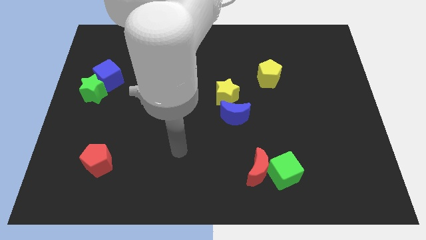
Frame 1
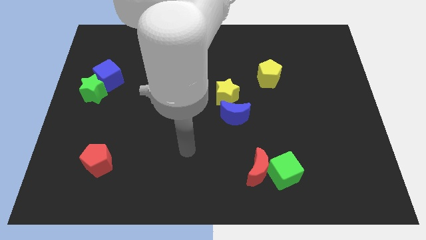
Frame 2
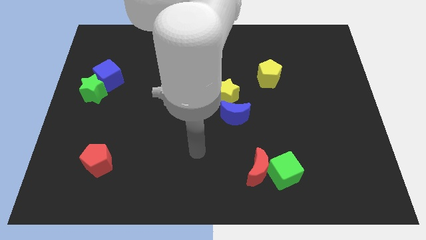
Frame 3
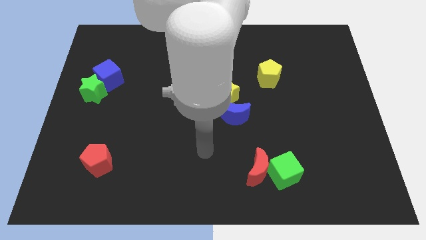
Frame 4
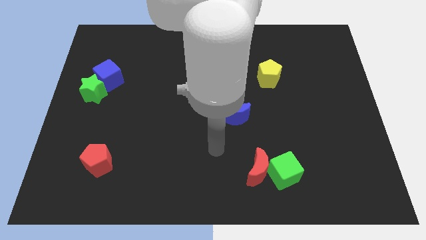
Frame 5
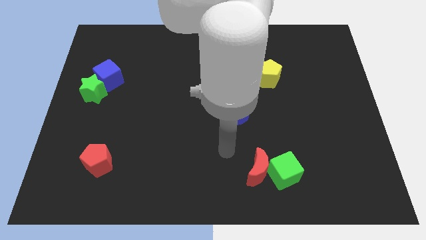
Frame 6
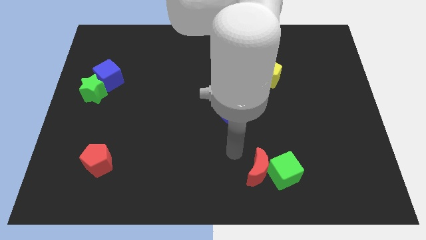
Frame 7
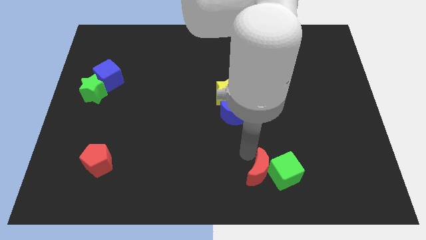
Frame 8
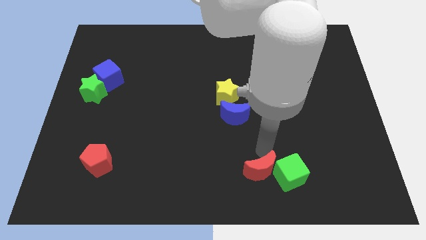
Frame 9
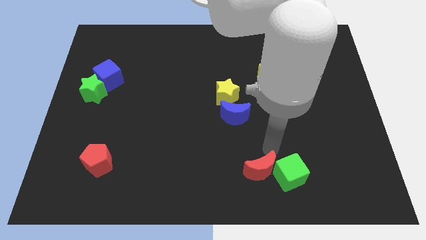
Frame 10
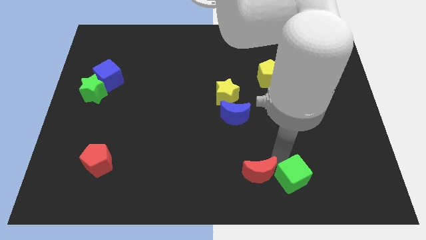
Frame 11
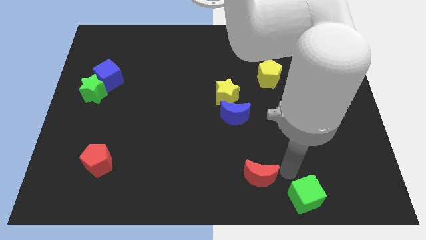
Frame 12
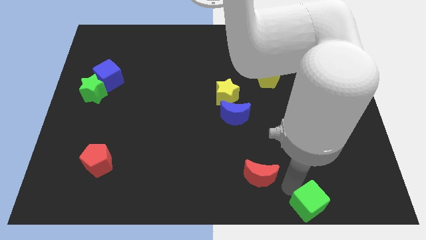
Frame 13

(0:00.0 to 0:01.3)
separate the red moon from the green cube

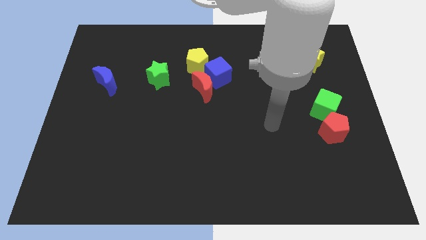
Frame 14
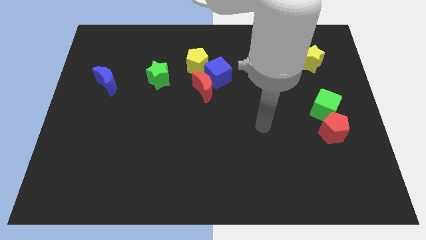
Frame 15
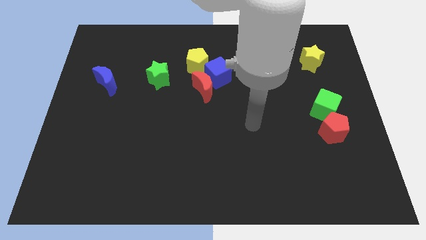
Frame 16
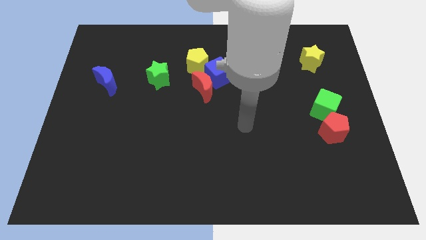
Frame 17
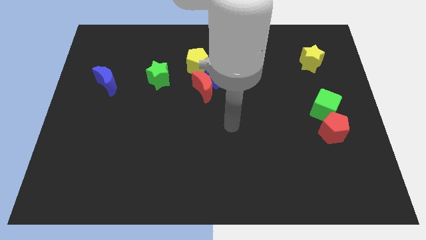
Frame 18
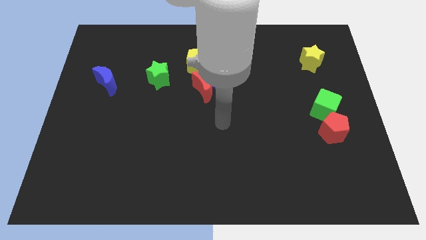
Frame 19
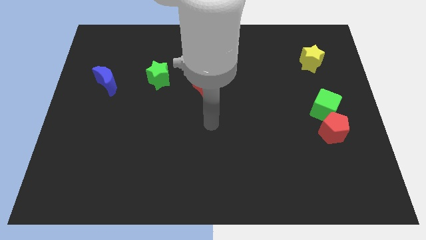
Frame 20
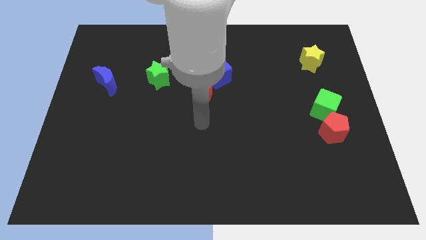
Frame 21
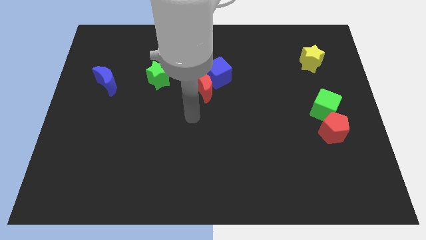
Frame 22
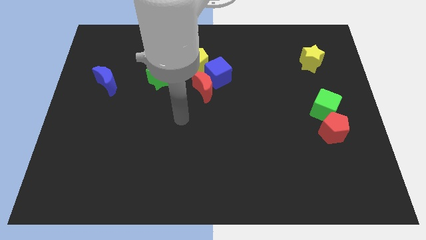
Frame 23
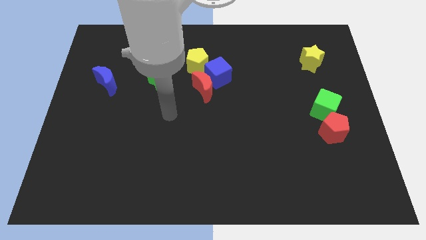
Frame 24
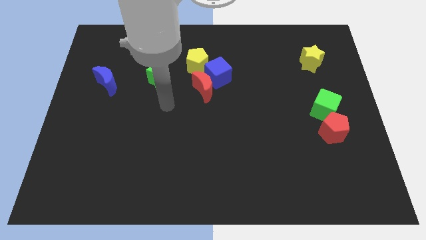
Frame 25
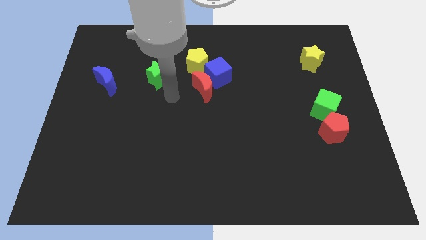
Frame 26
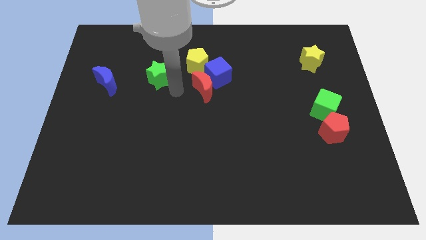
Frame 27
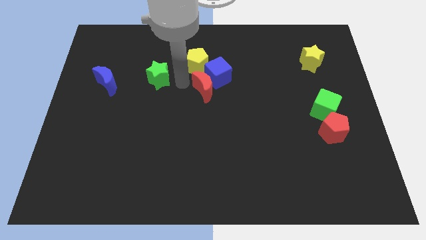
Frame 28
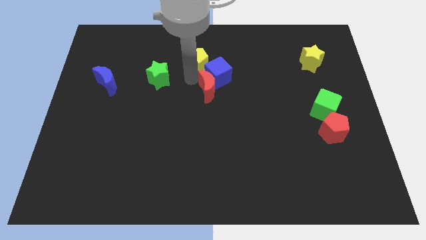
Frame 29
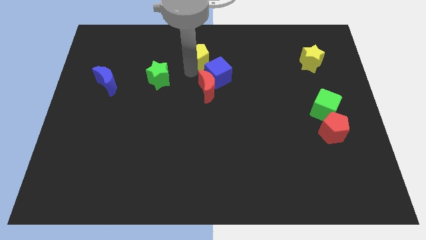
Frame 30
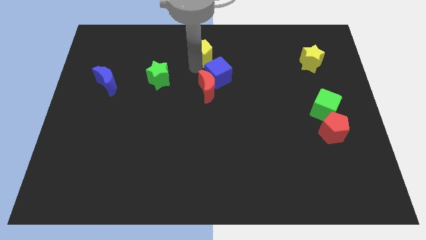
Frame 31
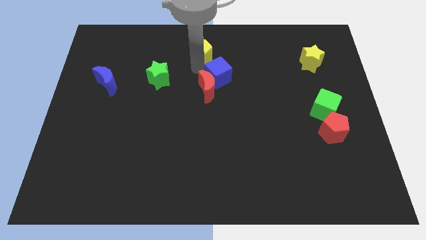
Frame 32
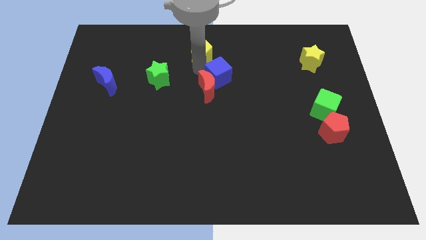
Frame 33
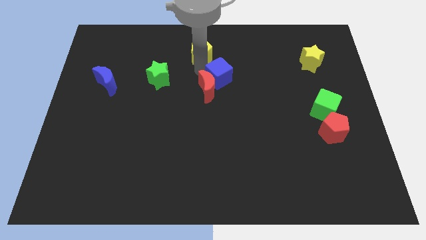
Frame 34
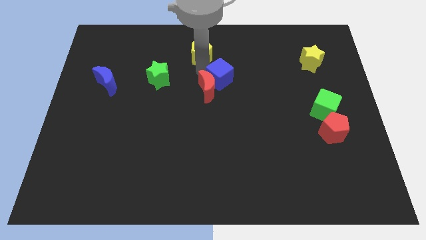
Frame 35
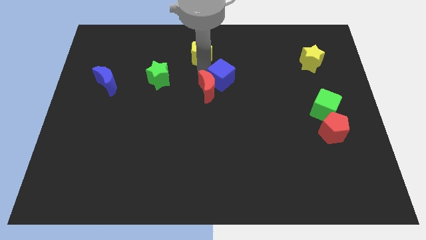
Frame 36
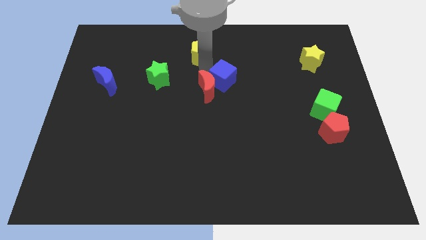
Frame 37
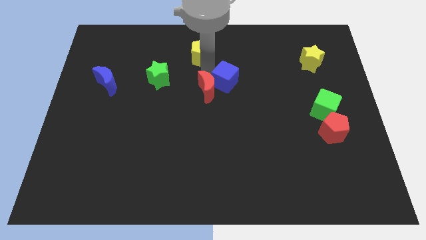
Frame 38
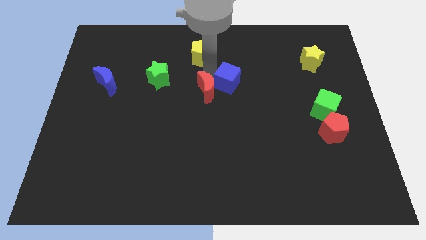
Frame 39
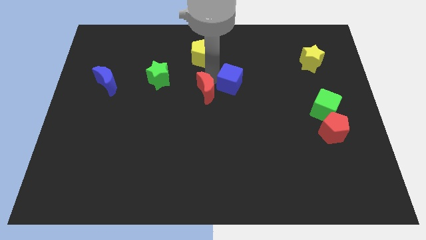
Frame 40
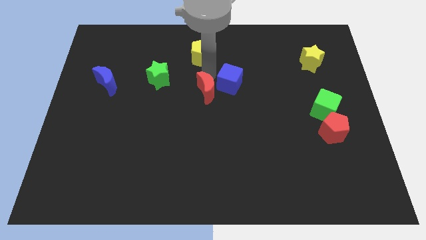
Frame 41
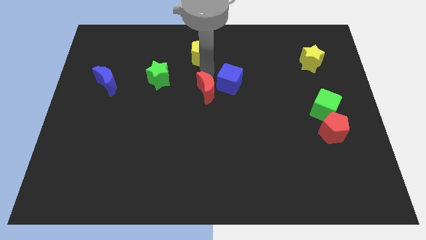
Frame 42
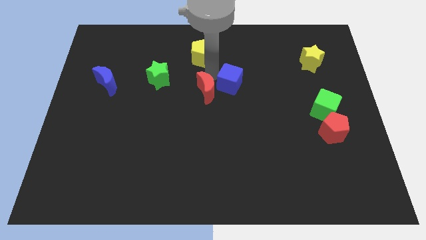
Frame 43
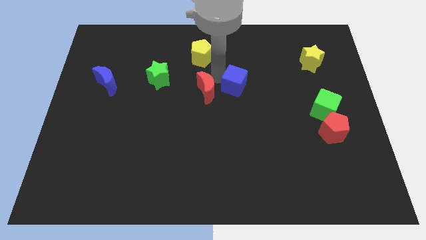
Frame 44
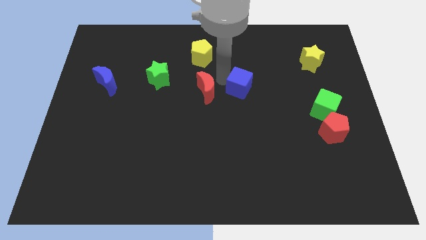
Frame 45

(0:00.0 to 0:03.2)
move the blue cube away from the red moon and yellow pentagon

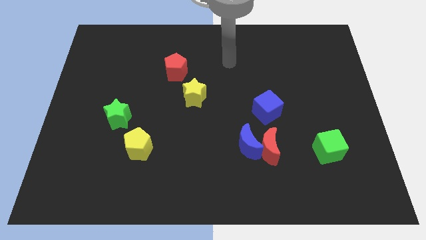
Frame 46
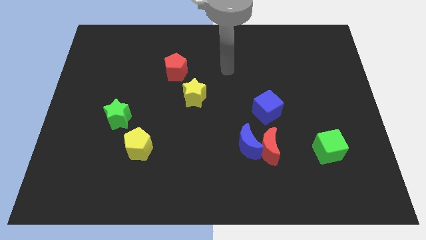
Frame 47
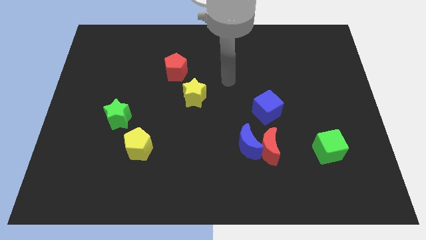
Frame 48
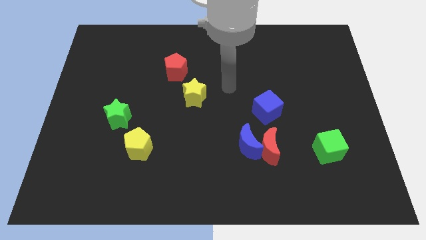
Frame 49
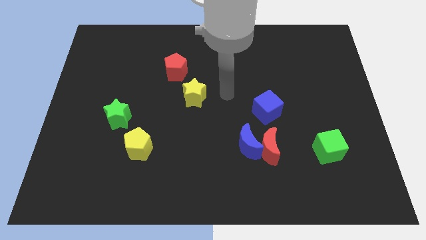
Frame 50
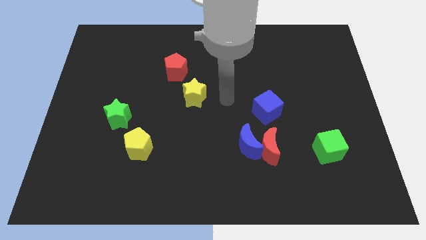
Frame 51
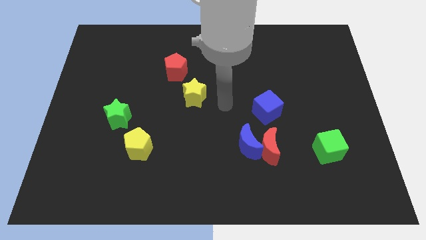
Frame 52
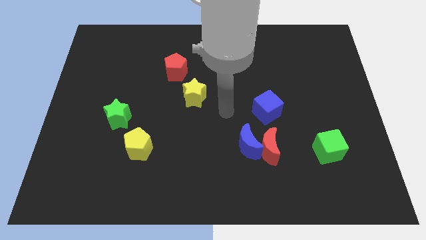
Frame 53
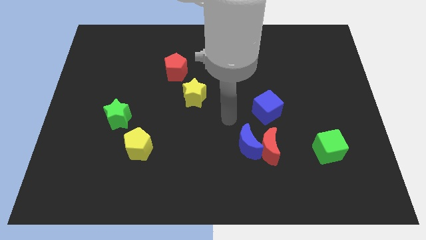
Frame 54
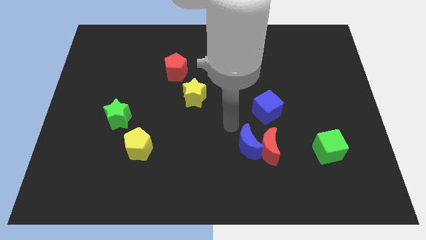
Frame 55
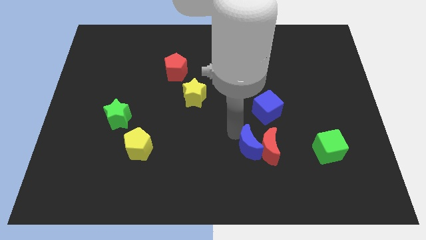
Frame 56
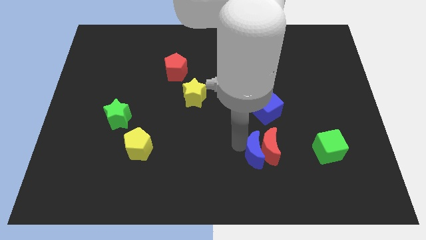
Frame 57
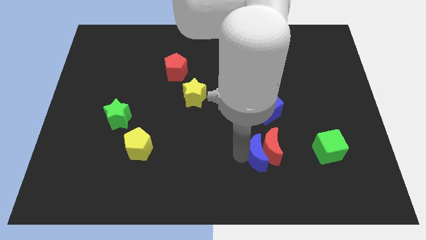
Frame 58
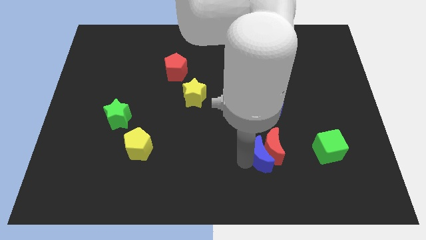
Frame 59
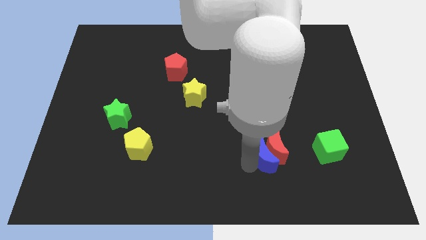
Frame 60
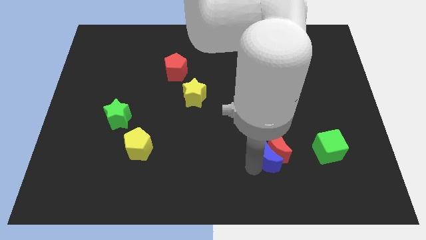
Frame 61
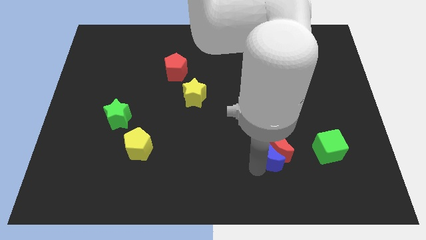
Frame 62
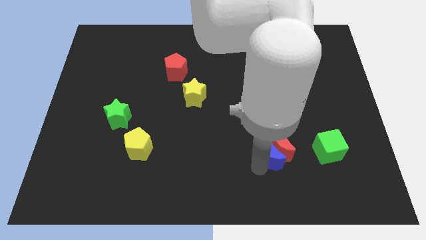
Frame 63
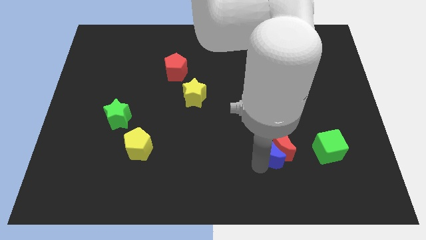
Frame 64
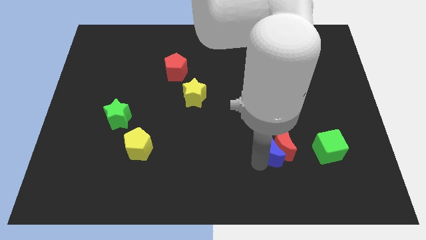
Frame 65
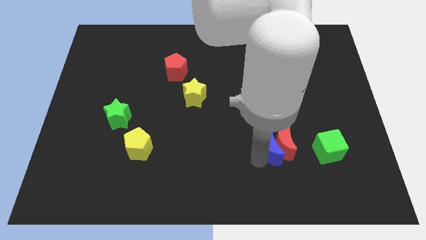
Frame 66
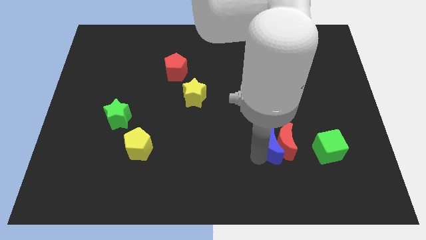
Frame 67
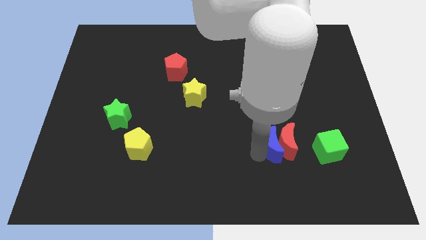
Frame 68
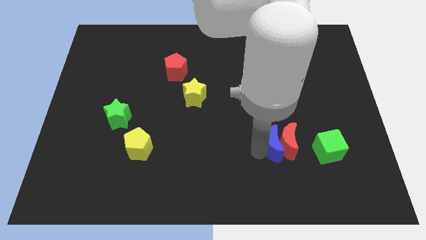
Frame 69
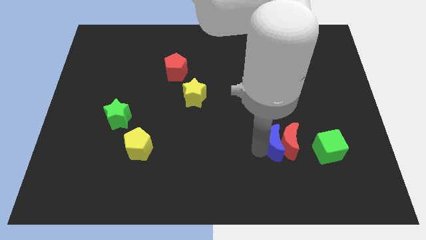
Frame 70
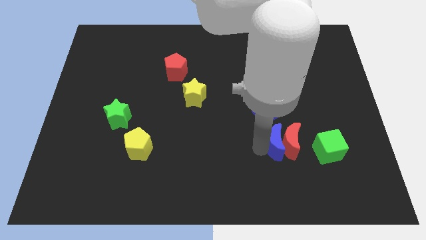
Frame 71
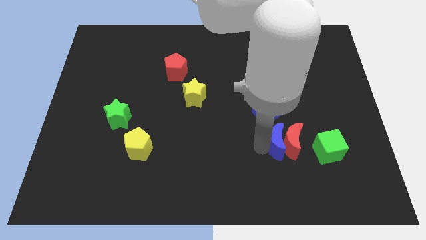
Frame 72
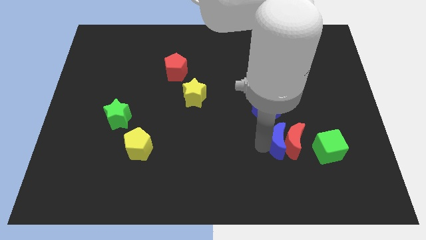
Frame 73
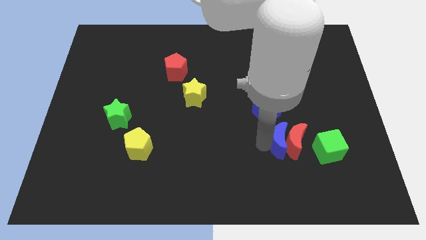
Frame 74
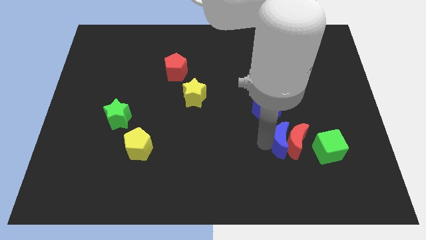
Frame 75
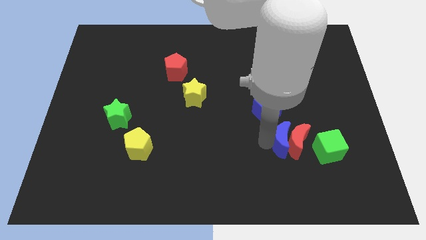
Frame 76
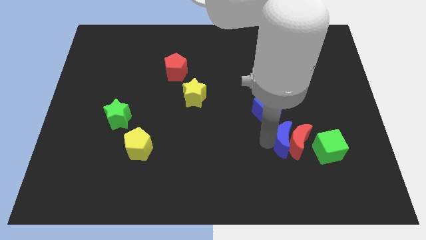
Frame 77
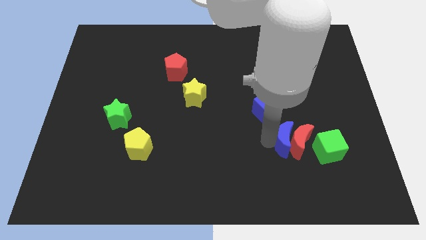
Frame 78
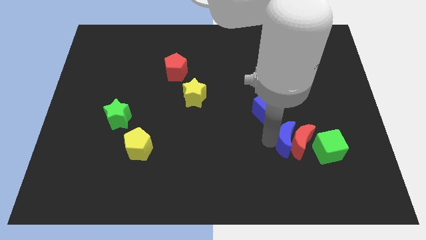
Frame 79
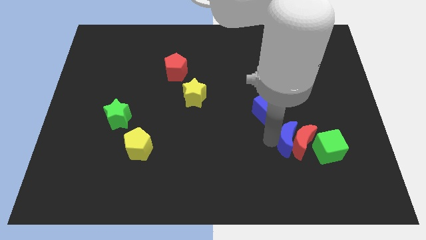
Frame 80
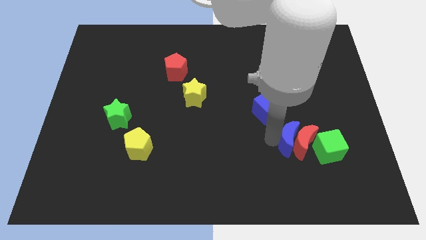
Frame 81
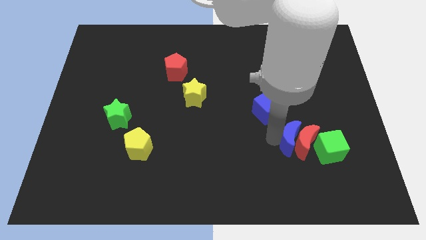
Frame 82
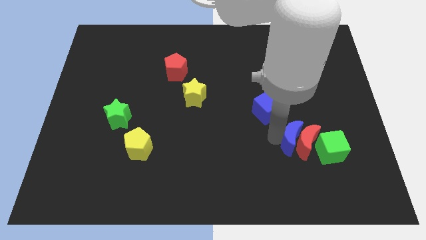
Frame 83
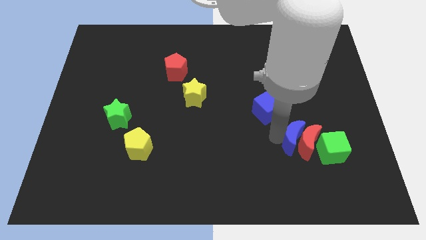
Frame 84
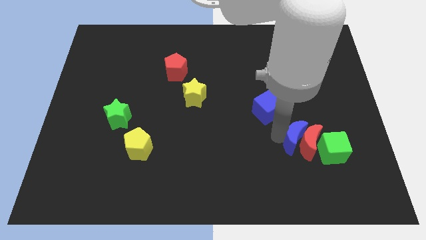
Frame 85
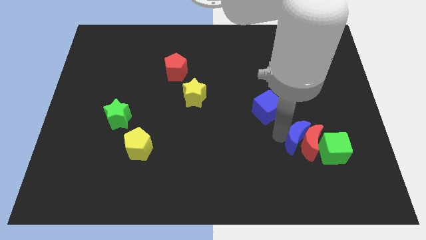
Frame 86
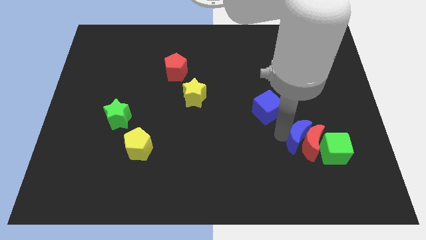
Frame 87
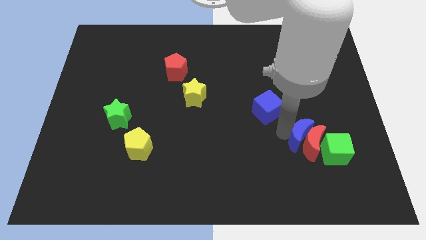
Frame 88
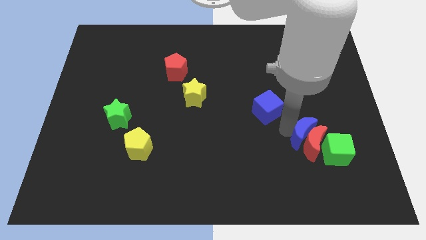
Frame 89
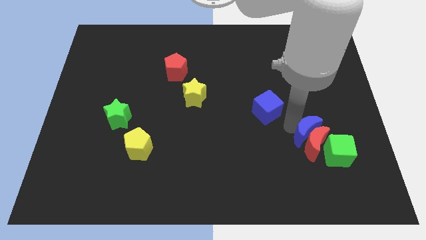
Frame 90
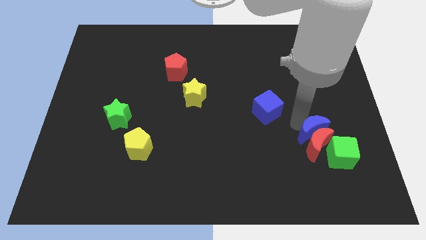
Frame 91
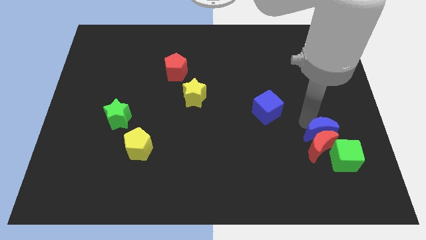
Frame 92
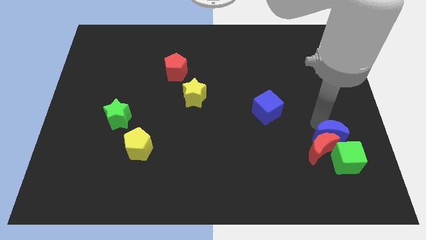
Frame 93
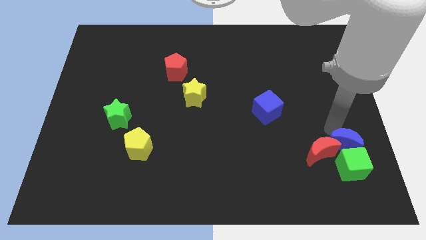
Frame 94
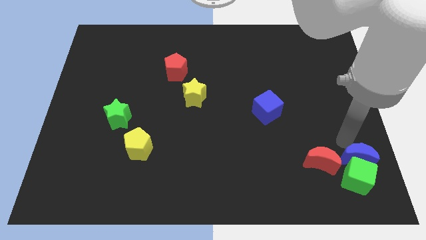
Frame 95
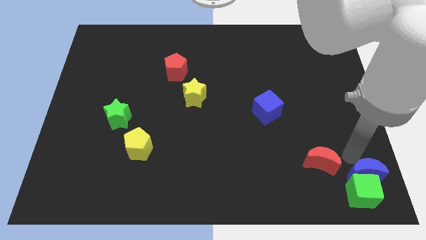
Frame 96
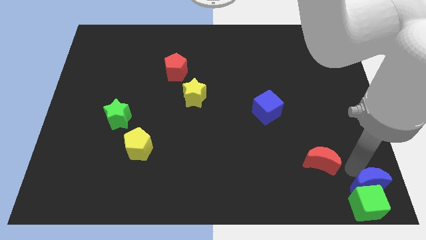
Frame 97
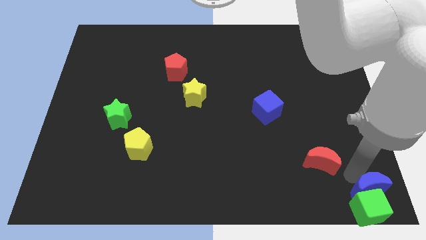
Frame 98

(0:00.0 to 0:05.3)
pull the red moon apart from the blue moon
